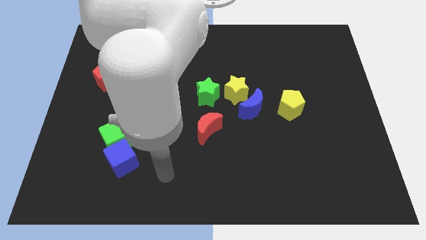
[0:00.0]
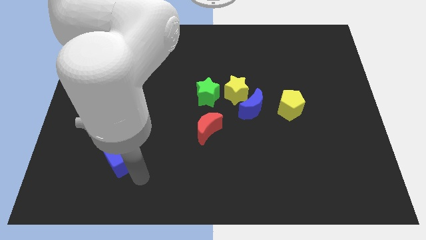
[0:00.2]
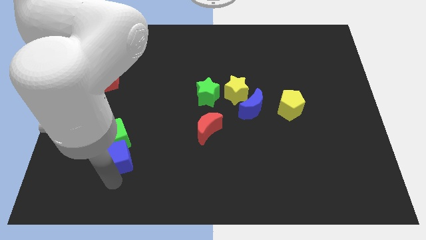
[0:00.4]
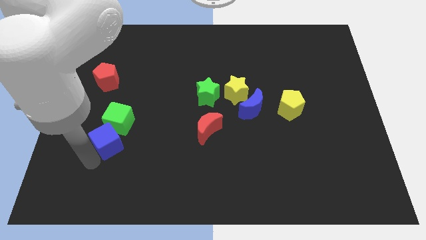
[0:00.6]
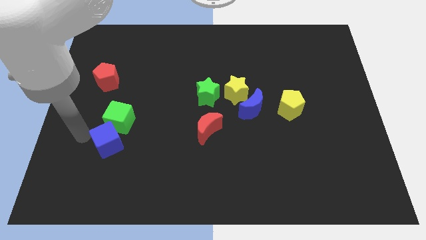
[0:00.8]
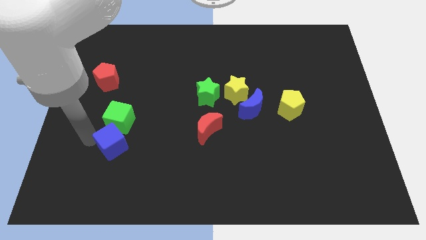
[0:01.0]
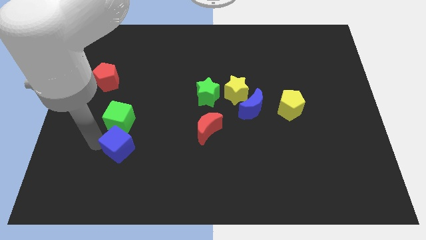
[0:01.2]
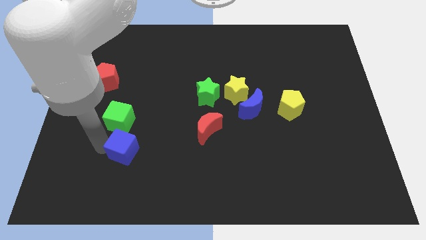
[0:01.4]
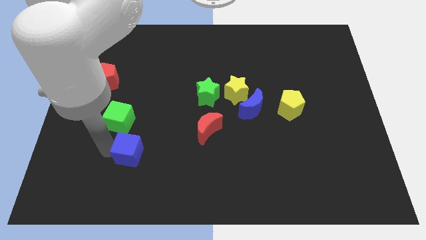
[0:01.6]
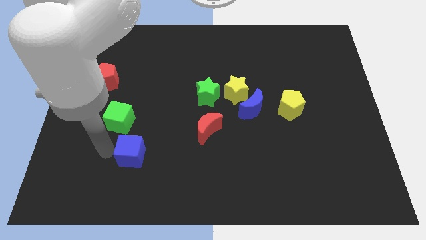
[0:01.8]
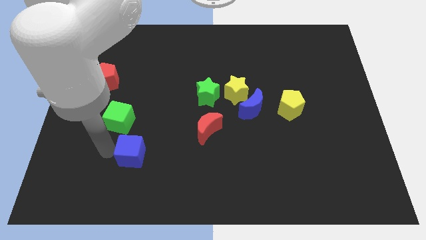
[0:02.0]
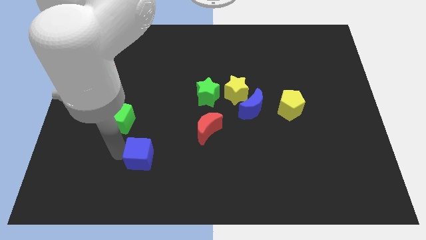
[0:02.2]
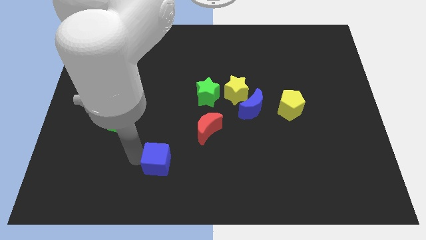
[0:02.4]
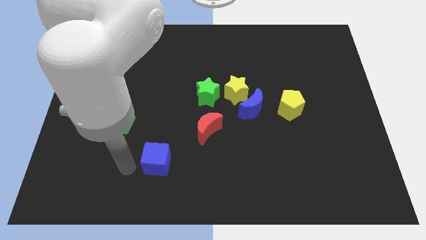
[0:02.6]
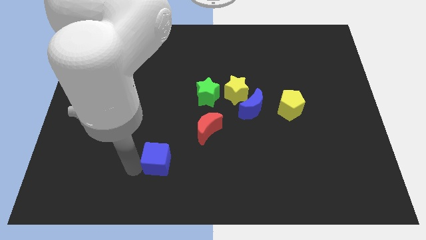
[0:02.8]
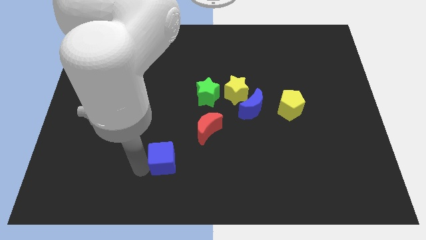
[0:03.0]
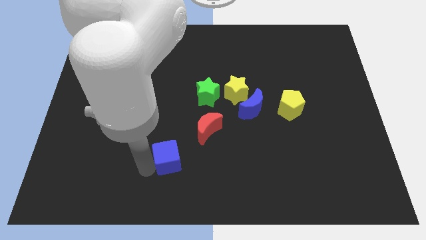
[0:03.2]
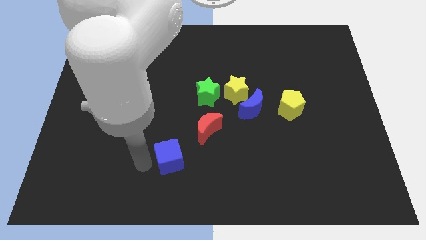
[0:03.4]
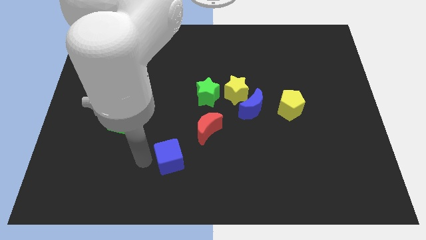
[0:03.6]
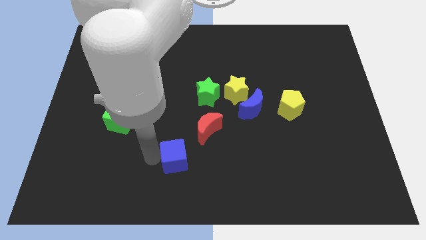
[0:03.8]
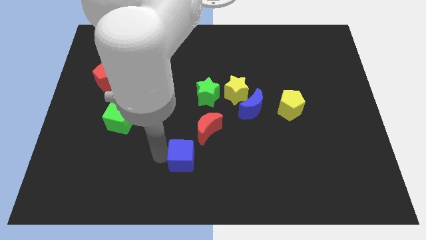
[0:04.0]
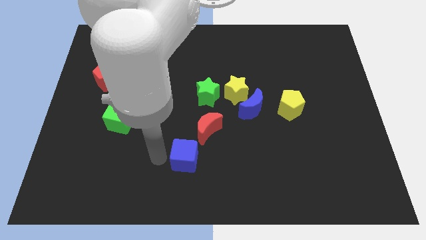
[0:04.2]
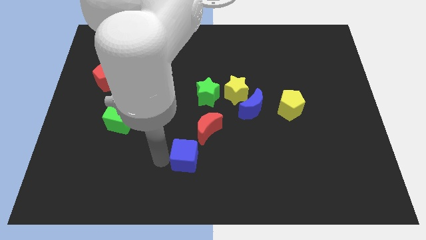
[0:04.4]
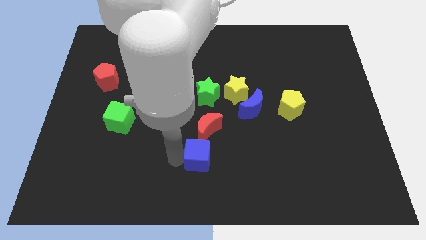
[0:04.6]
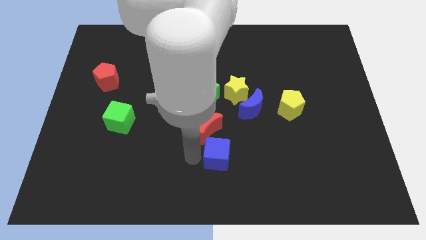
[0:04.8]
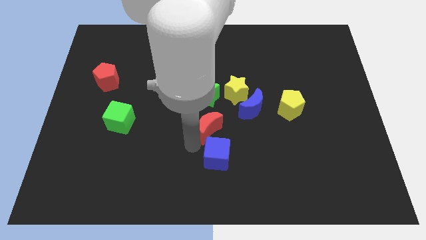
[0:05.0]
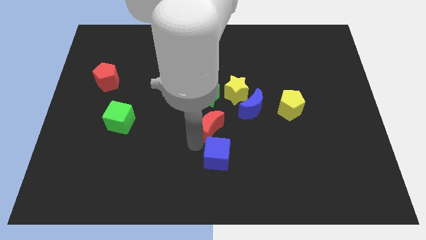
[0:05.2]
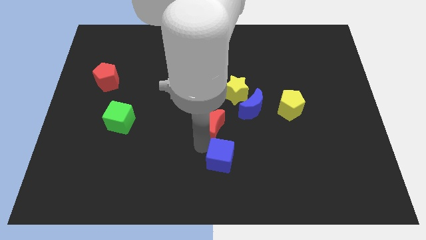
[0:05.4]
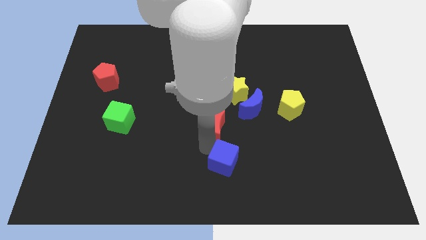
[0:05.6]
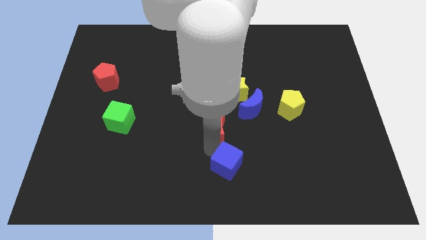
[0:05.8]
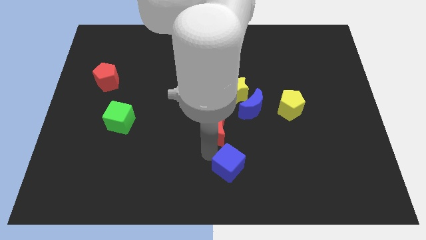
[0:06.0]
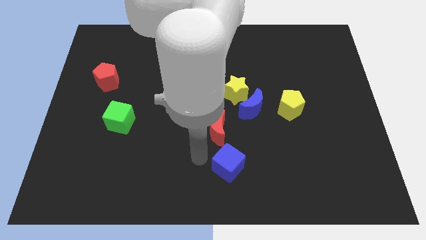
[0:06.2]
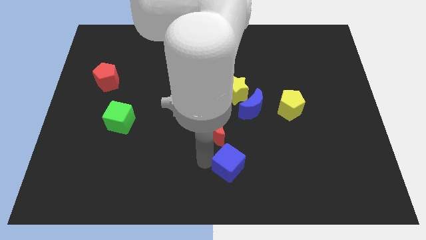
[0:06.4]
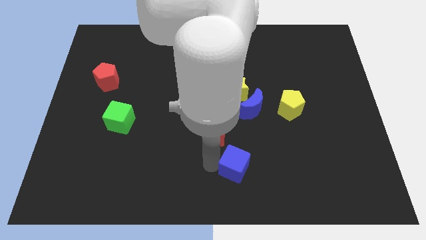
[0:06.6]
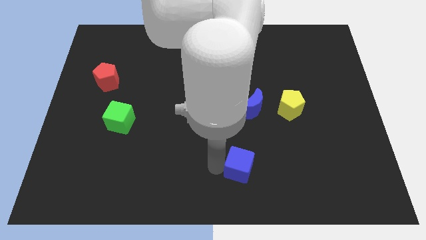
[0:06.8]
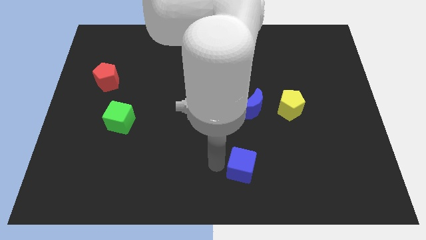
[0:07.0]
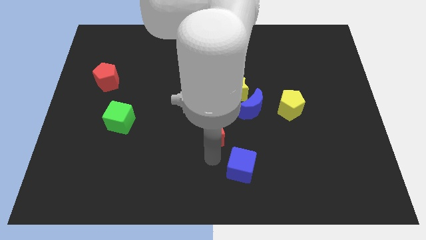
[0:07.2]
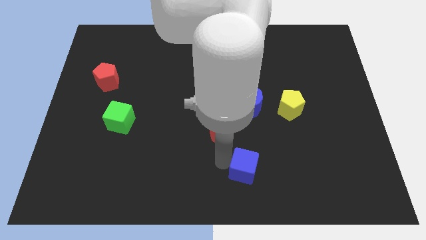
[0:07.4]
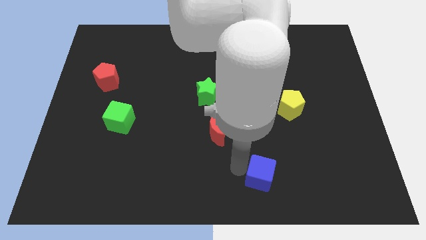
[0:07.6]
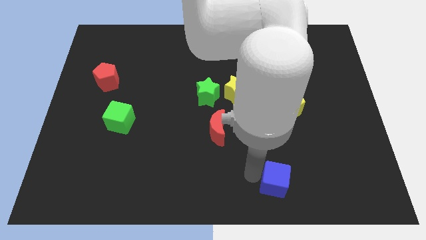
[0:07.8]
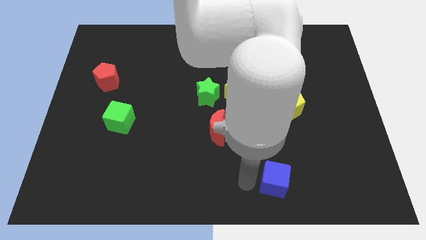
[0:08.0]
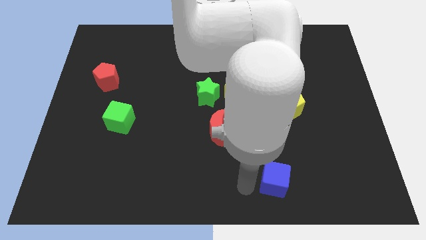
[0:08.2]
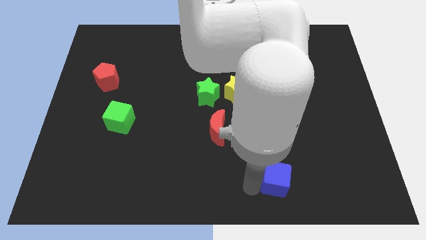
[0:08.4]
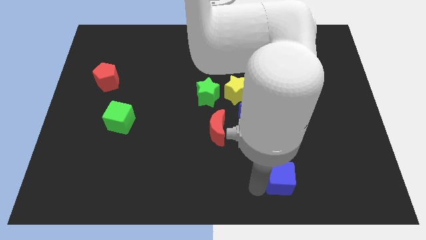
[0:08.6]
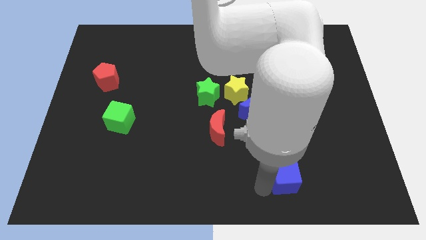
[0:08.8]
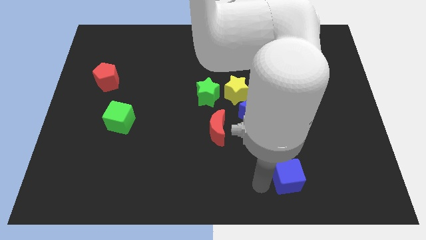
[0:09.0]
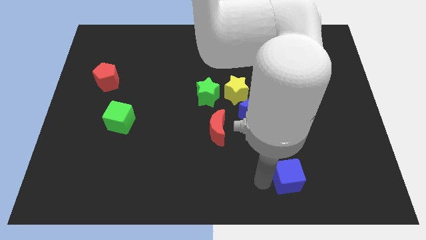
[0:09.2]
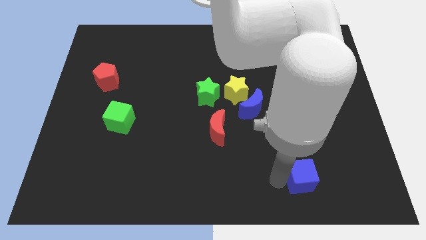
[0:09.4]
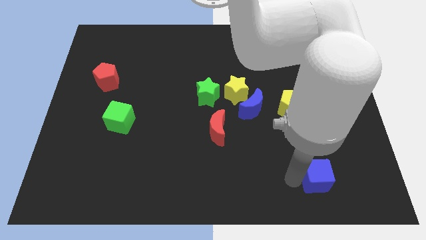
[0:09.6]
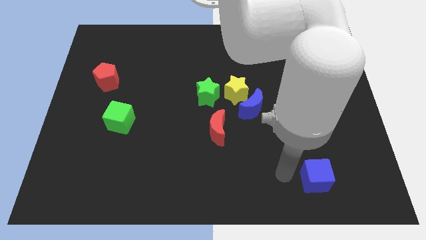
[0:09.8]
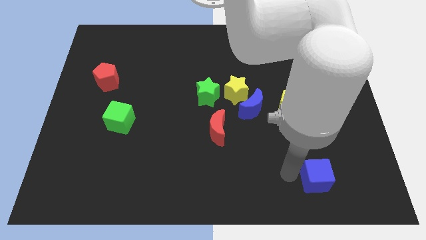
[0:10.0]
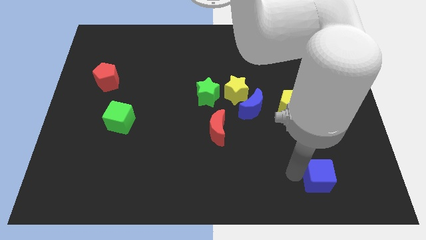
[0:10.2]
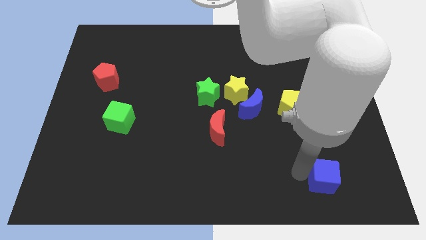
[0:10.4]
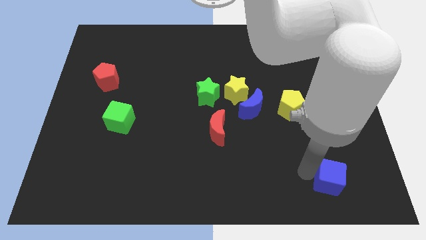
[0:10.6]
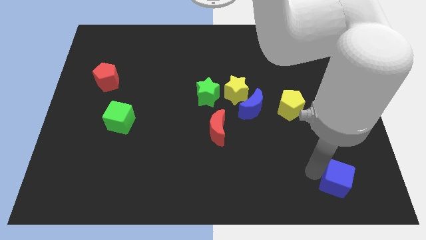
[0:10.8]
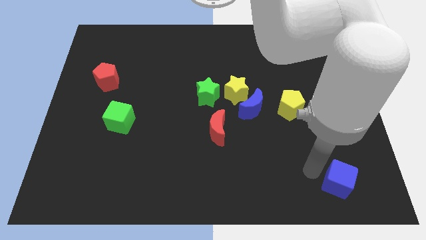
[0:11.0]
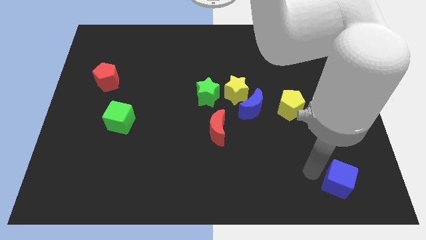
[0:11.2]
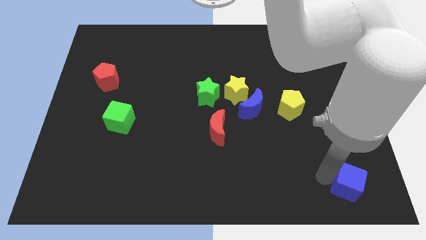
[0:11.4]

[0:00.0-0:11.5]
slide the blue cube to the lower right corner

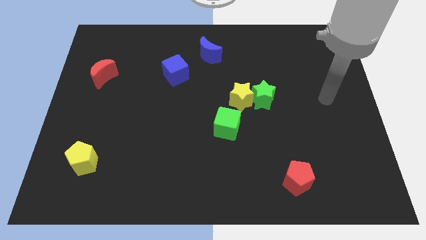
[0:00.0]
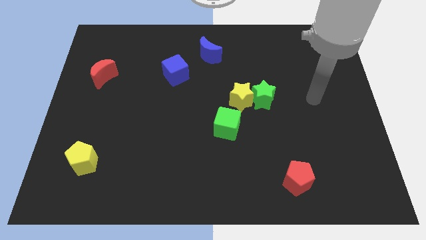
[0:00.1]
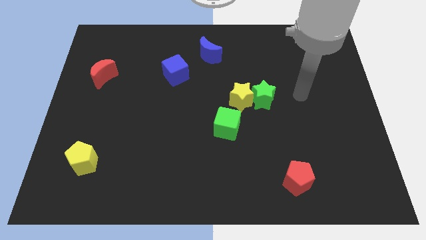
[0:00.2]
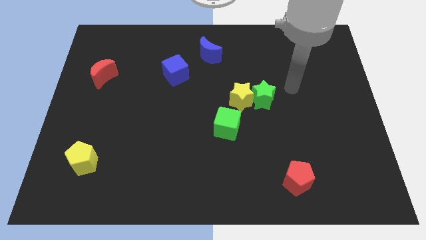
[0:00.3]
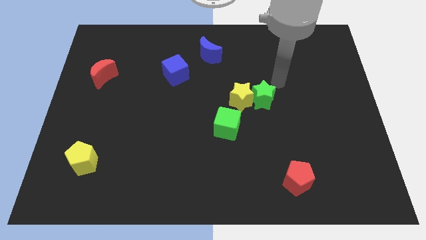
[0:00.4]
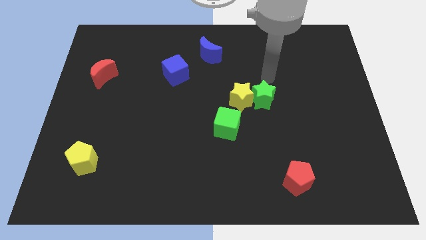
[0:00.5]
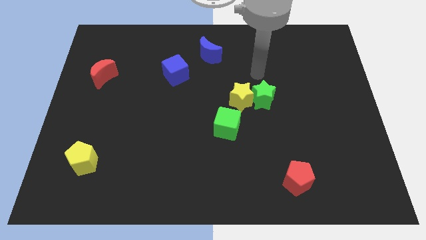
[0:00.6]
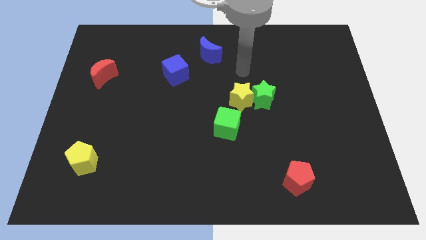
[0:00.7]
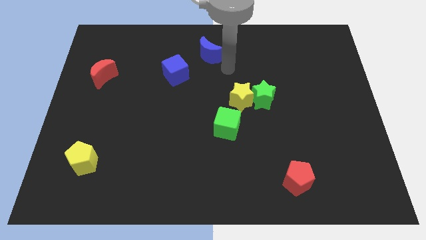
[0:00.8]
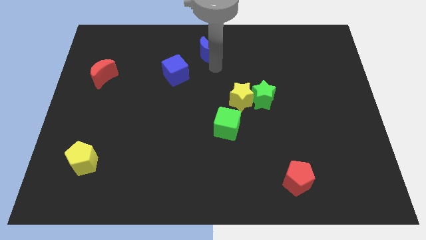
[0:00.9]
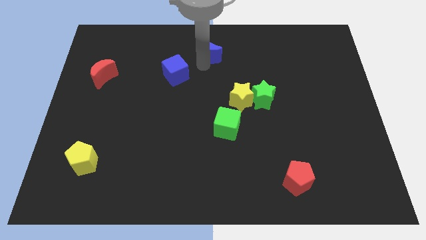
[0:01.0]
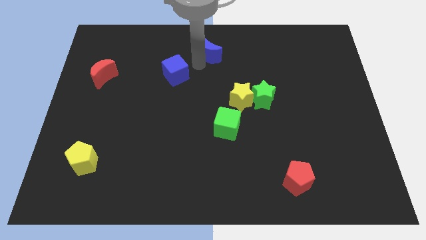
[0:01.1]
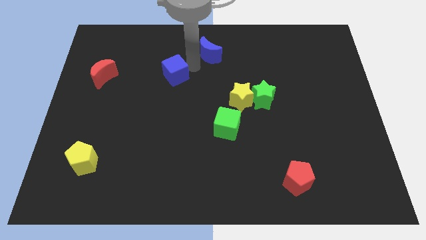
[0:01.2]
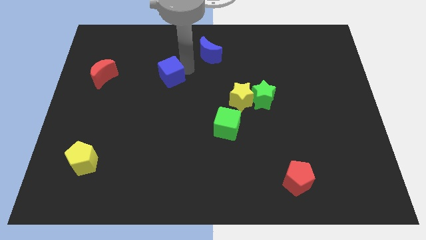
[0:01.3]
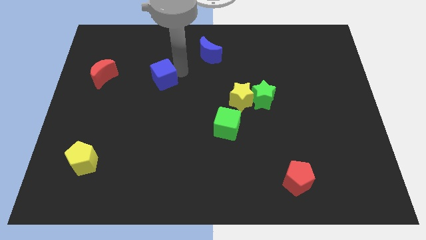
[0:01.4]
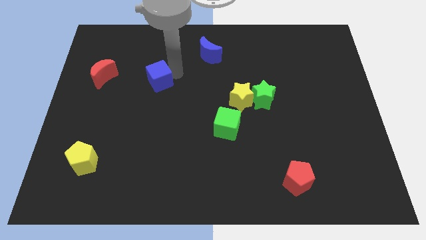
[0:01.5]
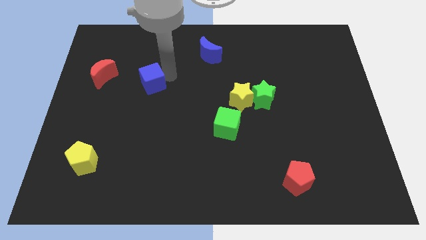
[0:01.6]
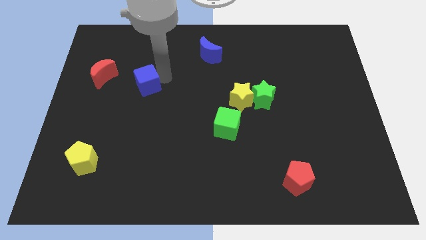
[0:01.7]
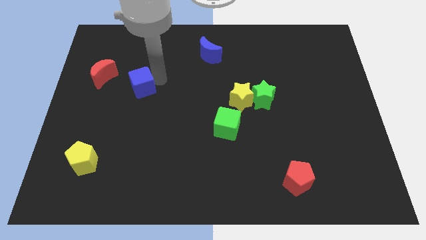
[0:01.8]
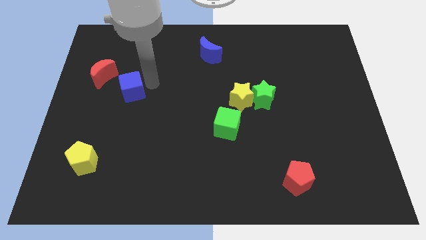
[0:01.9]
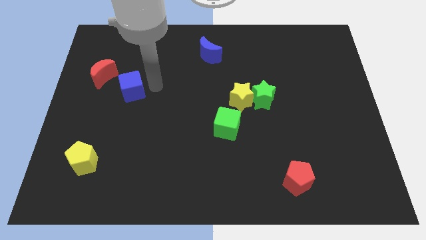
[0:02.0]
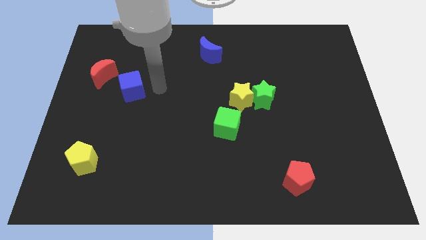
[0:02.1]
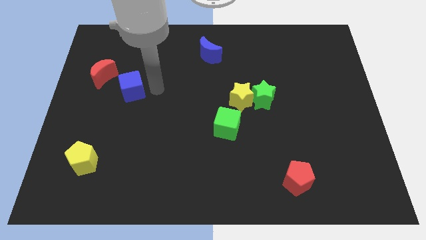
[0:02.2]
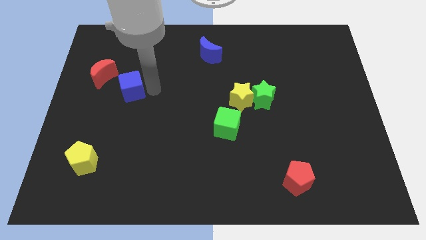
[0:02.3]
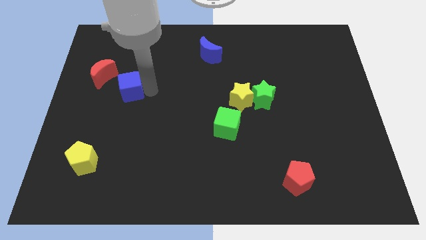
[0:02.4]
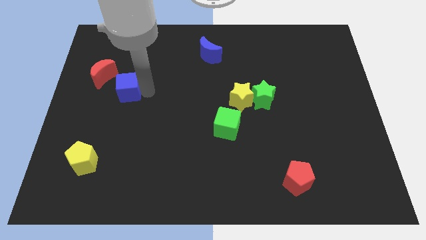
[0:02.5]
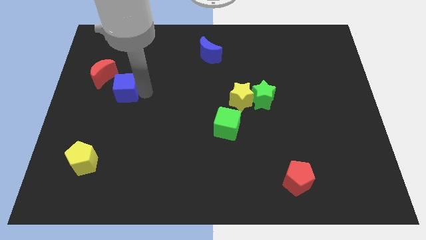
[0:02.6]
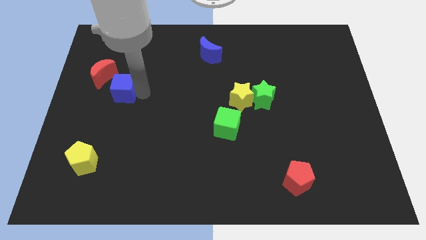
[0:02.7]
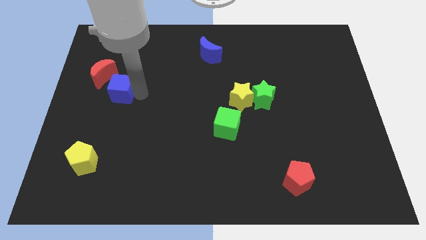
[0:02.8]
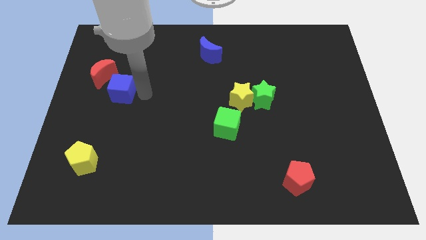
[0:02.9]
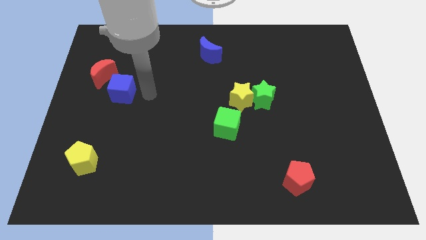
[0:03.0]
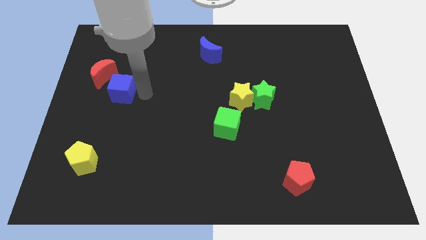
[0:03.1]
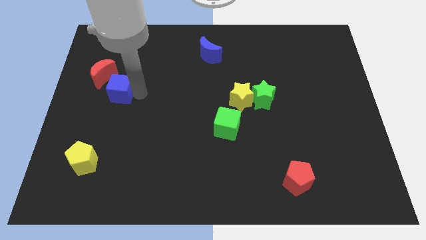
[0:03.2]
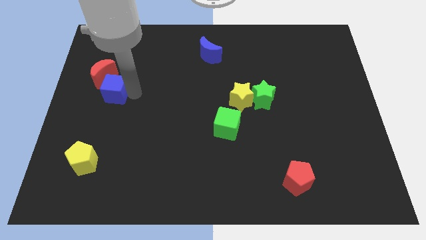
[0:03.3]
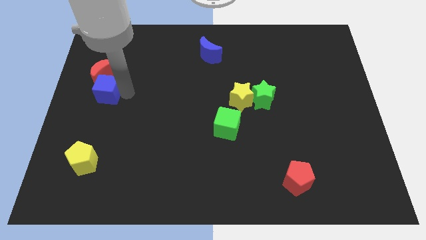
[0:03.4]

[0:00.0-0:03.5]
put the blue cube to the left side
